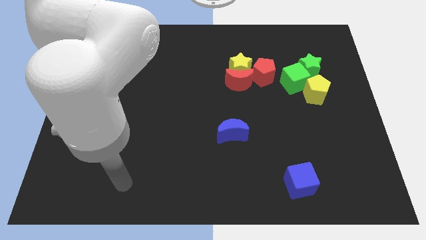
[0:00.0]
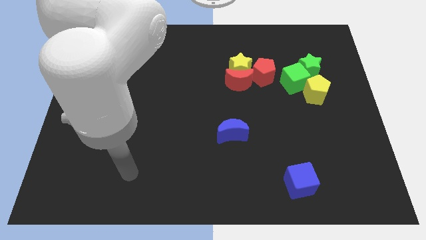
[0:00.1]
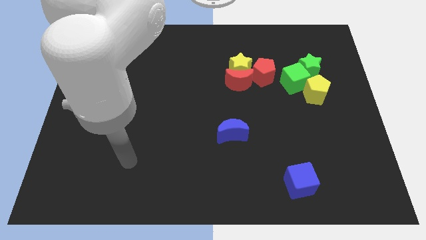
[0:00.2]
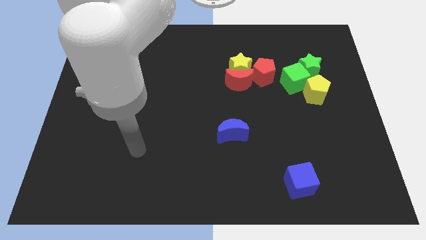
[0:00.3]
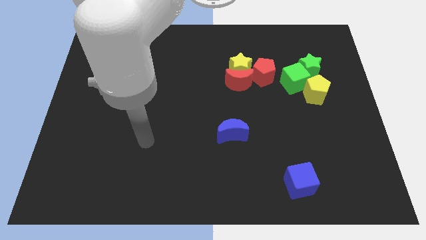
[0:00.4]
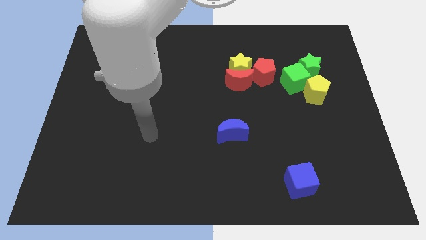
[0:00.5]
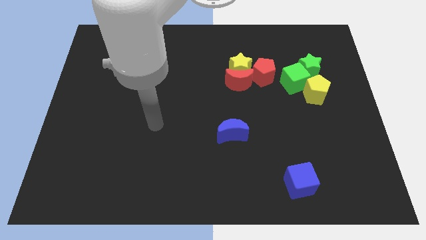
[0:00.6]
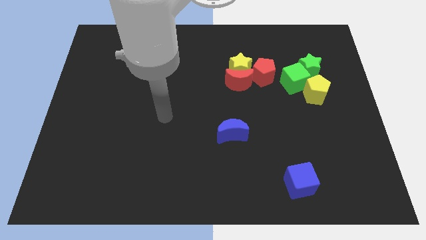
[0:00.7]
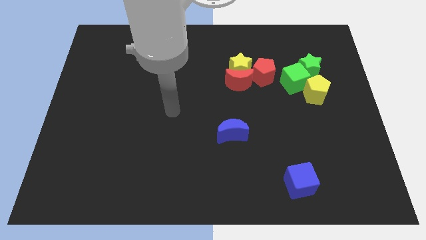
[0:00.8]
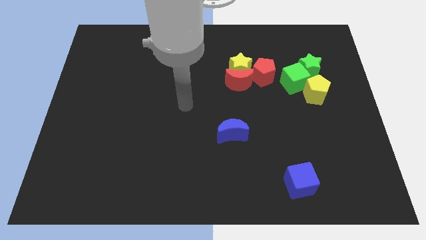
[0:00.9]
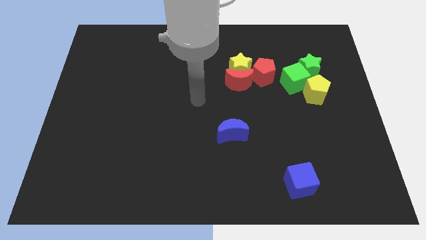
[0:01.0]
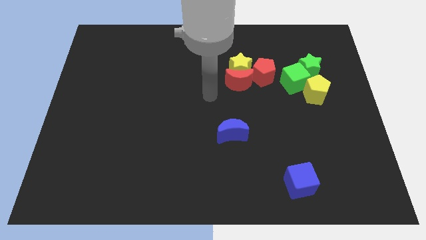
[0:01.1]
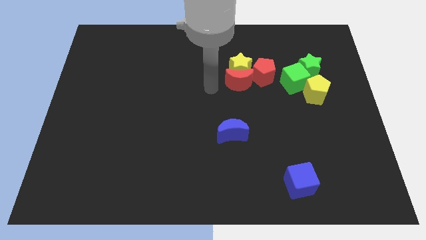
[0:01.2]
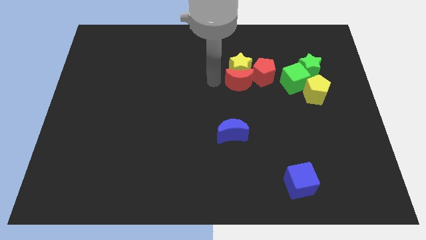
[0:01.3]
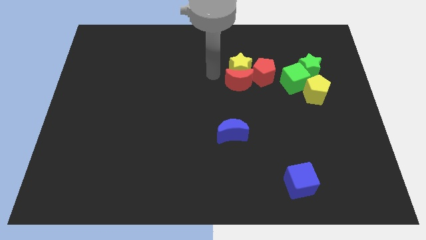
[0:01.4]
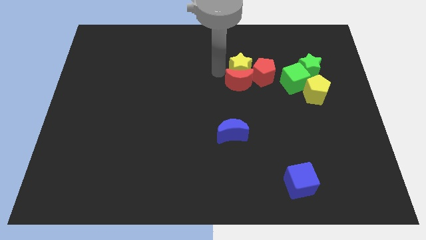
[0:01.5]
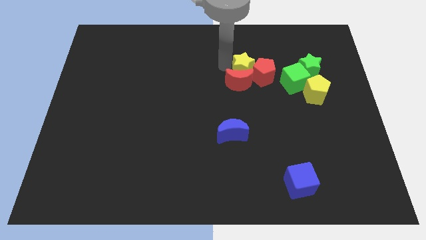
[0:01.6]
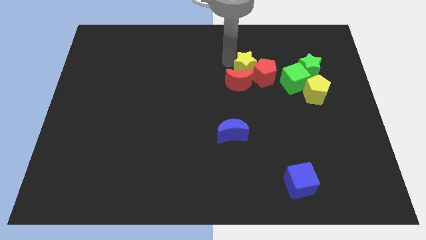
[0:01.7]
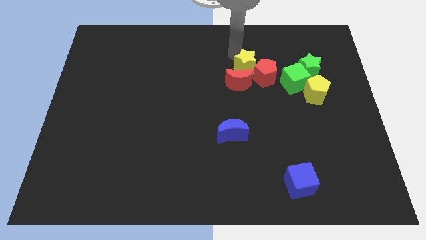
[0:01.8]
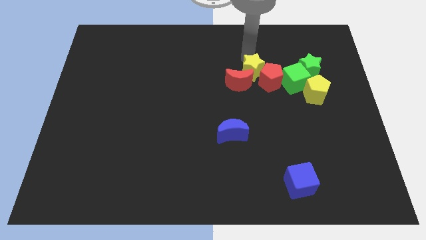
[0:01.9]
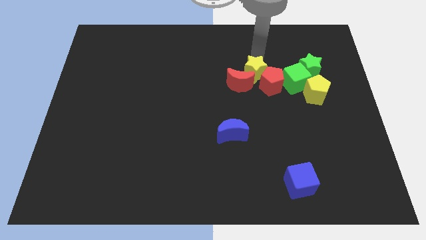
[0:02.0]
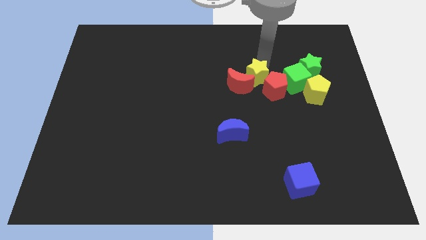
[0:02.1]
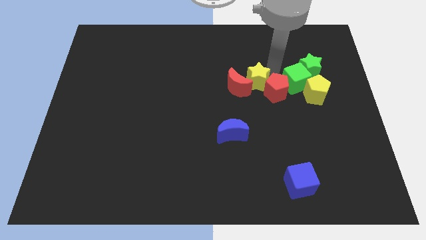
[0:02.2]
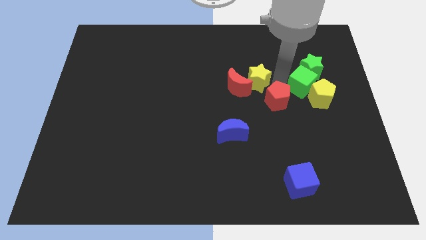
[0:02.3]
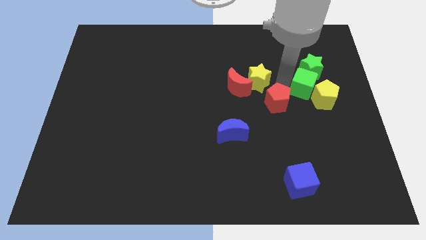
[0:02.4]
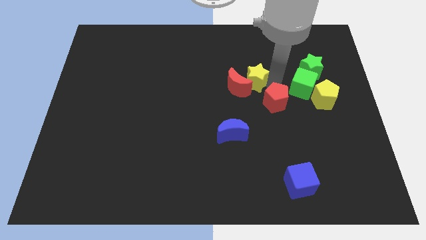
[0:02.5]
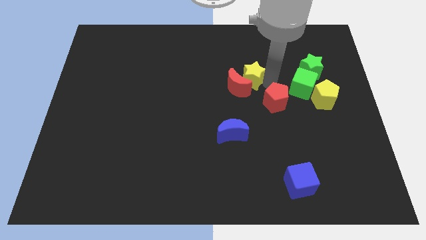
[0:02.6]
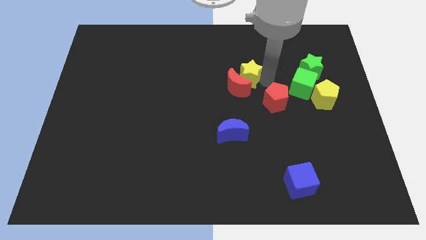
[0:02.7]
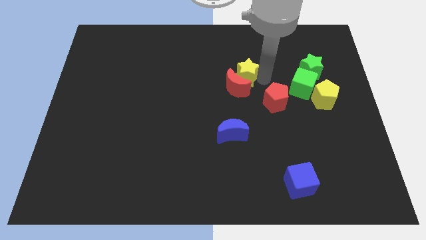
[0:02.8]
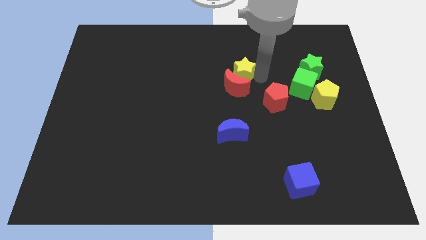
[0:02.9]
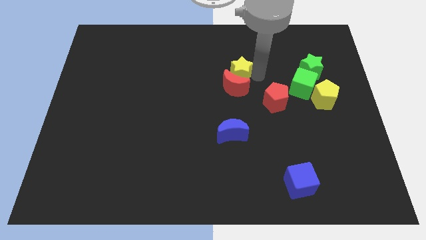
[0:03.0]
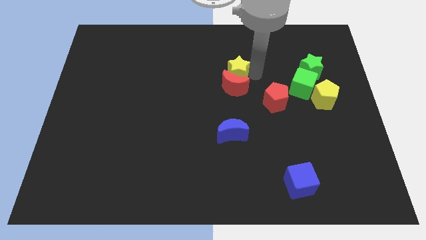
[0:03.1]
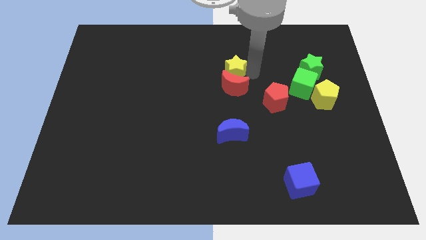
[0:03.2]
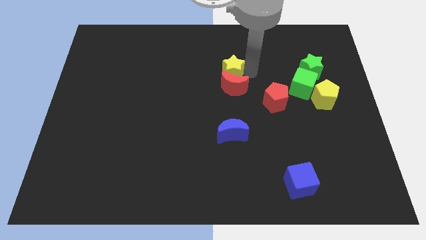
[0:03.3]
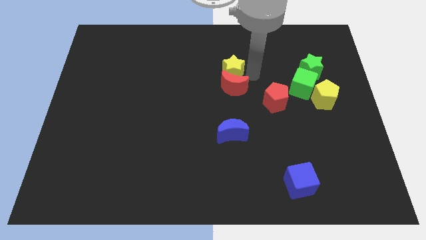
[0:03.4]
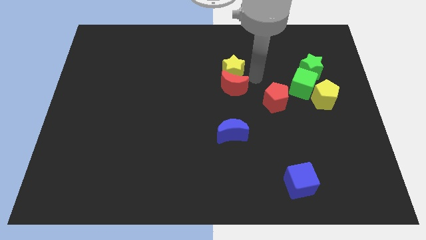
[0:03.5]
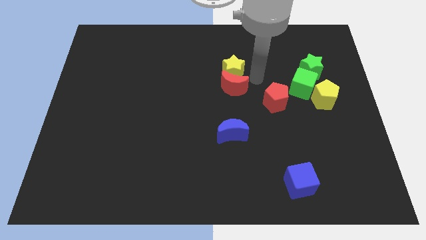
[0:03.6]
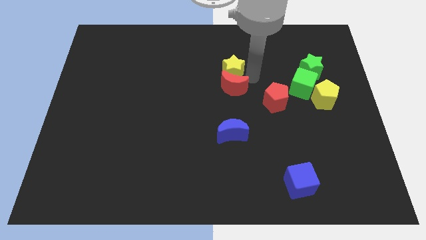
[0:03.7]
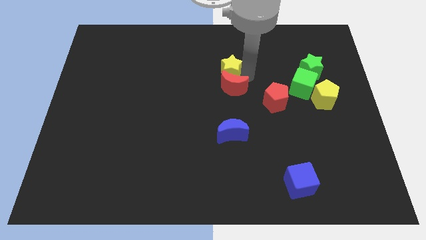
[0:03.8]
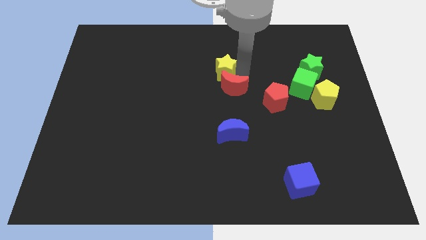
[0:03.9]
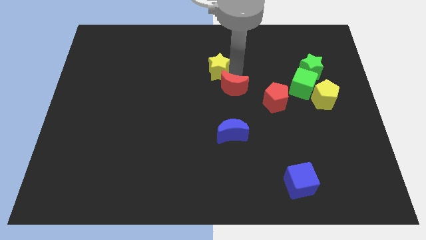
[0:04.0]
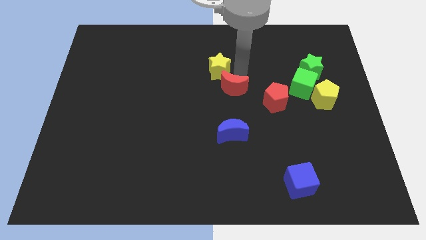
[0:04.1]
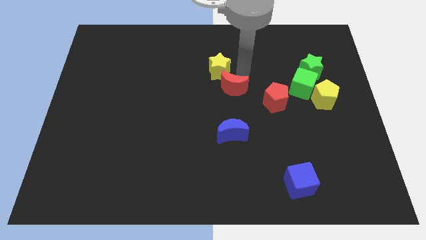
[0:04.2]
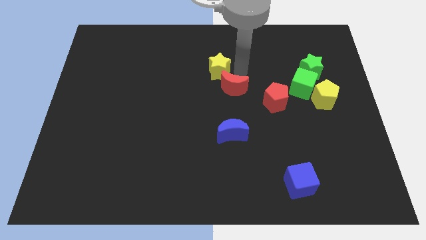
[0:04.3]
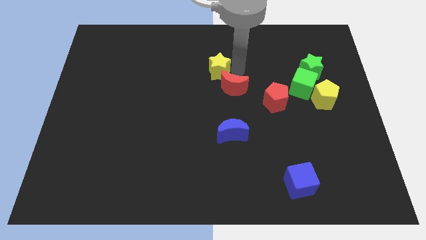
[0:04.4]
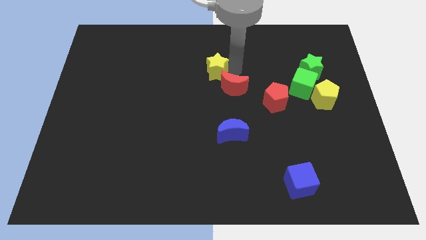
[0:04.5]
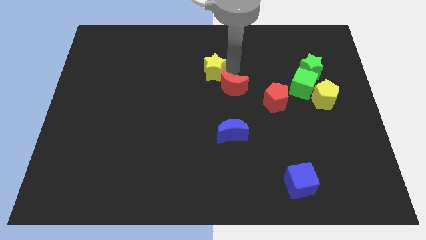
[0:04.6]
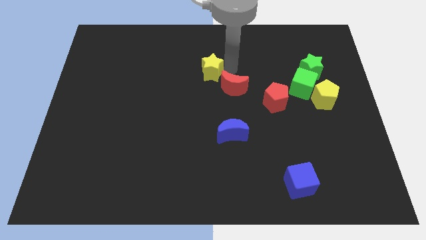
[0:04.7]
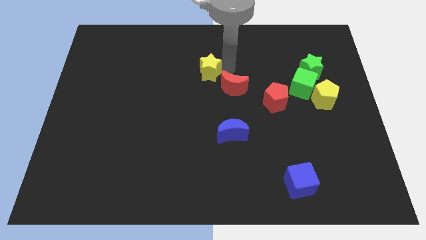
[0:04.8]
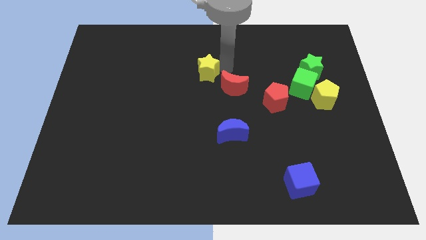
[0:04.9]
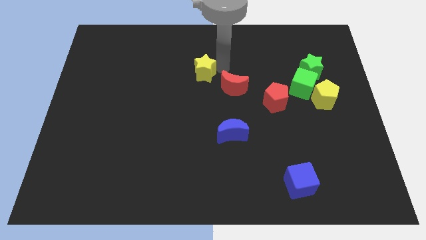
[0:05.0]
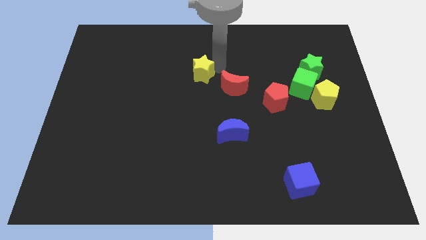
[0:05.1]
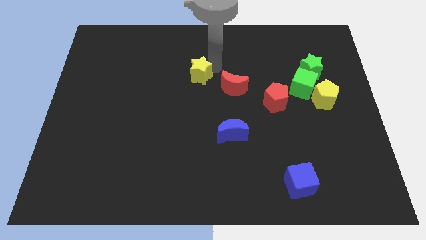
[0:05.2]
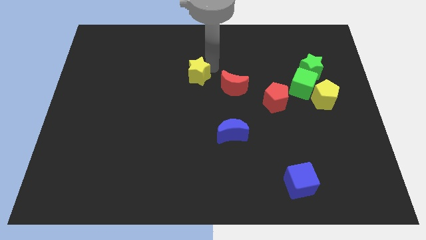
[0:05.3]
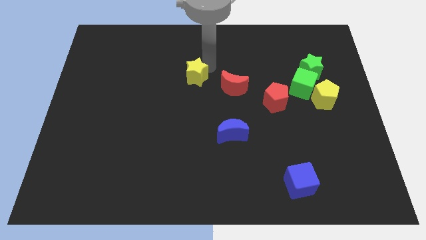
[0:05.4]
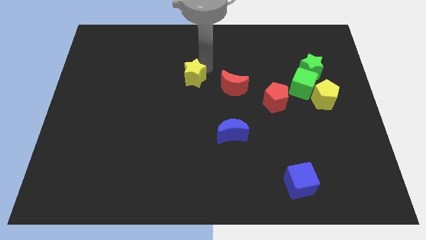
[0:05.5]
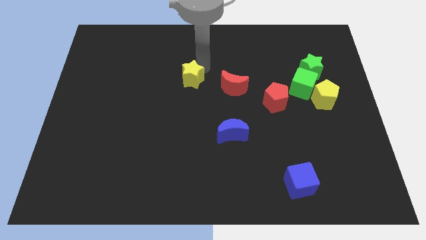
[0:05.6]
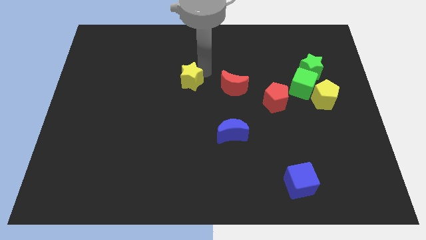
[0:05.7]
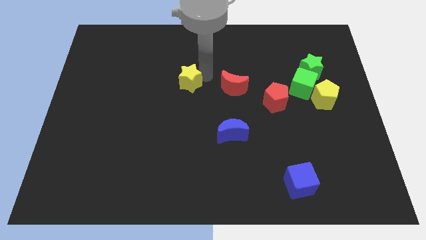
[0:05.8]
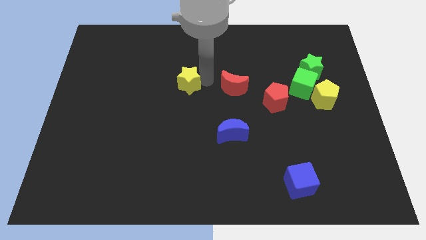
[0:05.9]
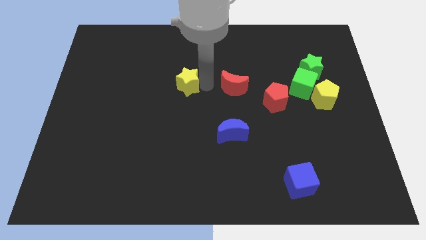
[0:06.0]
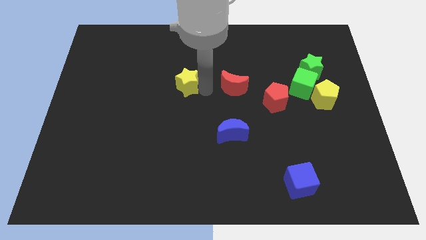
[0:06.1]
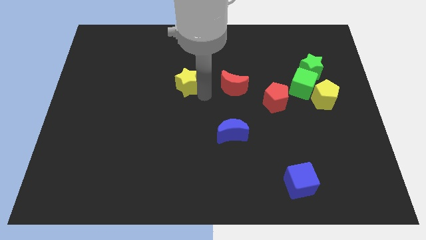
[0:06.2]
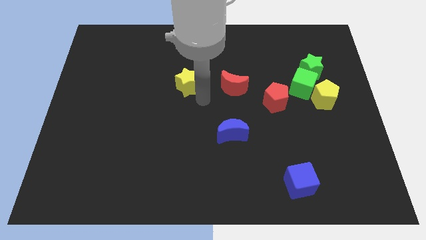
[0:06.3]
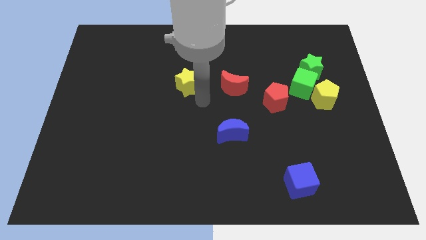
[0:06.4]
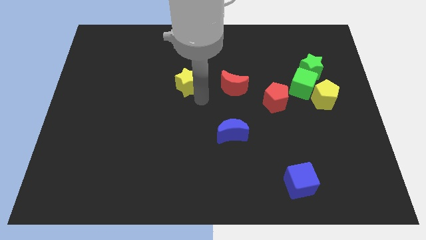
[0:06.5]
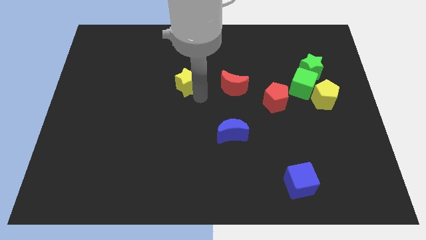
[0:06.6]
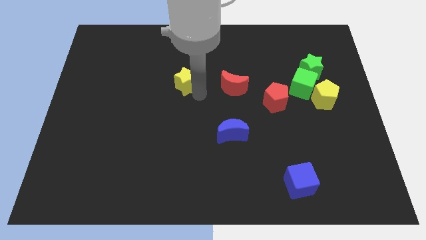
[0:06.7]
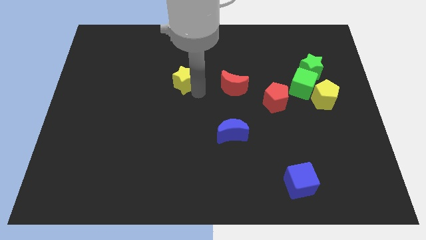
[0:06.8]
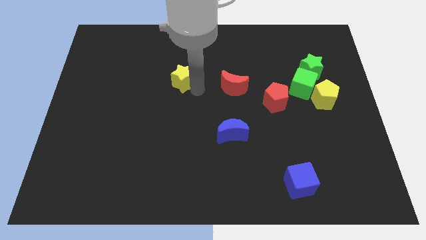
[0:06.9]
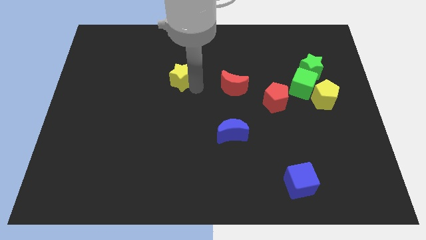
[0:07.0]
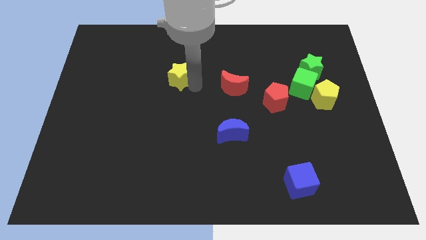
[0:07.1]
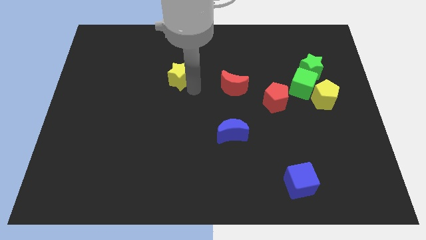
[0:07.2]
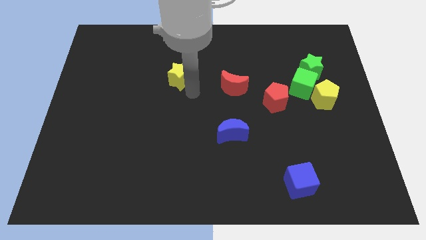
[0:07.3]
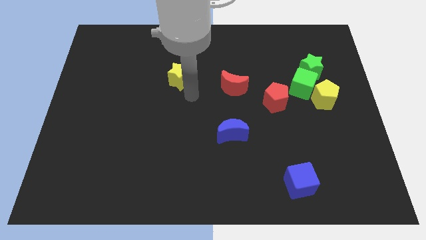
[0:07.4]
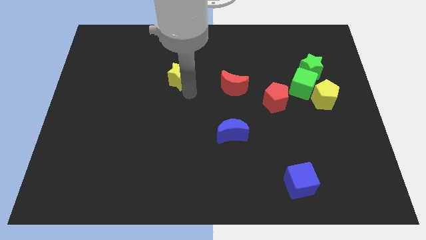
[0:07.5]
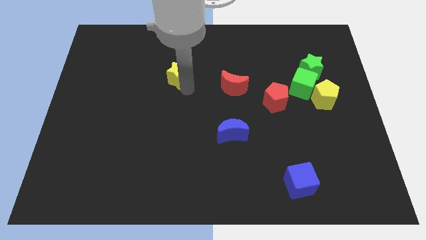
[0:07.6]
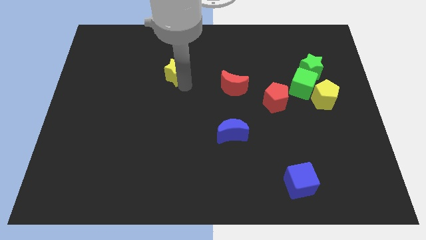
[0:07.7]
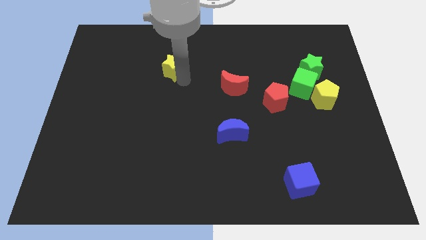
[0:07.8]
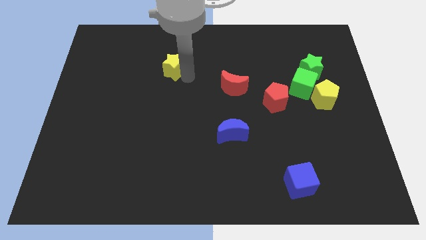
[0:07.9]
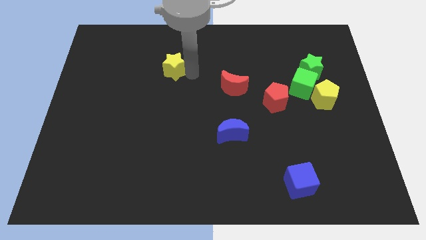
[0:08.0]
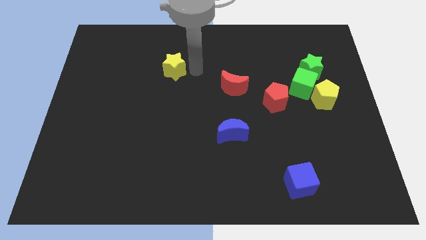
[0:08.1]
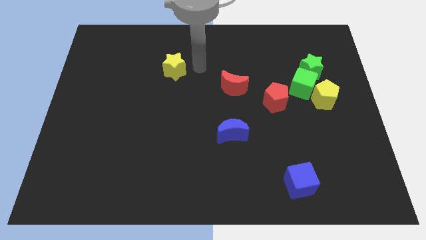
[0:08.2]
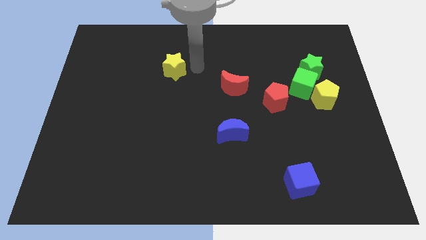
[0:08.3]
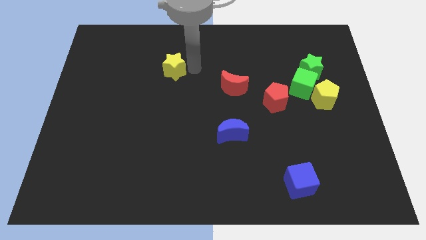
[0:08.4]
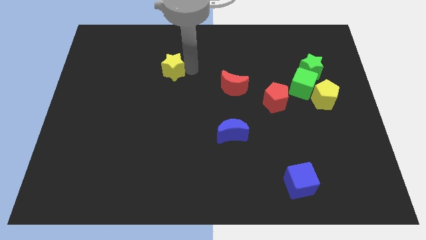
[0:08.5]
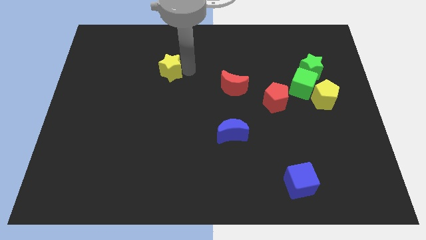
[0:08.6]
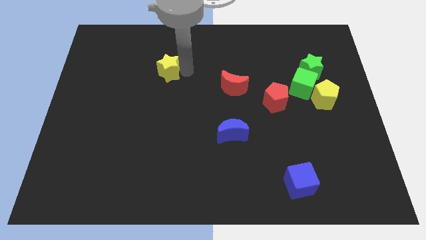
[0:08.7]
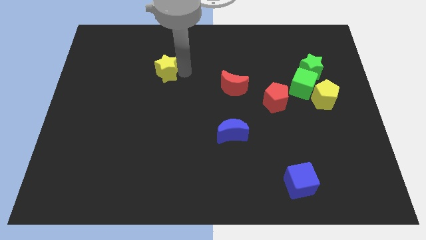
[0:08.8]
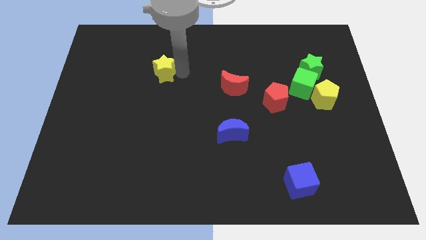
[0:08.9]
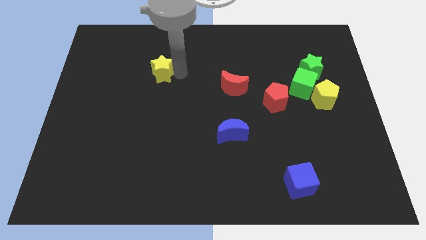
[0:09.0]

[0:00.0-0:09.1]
slide the yellow star left
